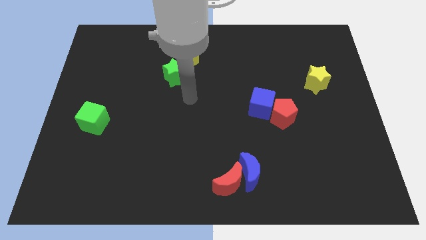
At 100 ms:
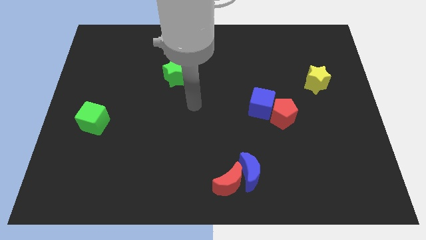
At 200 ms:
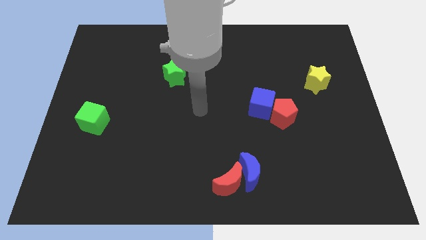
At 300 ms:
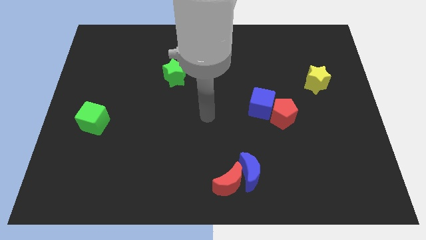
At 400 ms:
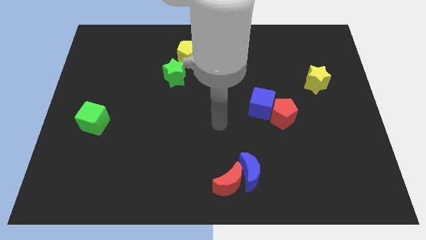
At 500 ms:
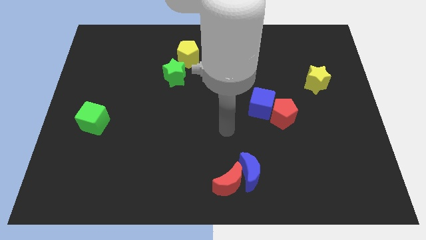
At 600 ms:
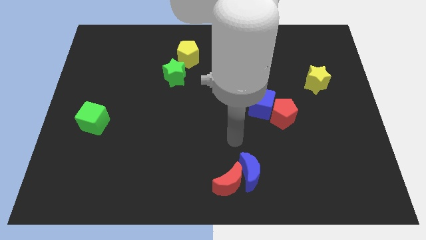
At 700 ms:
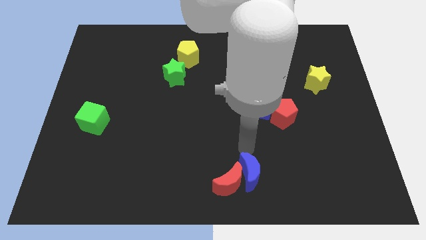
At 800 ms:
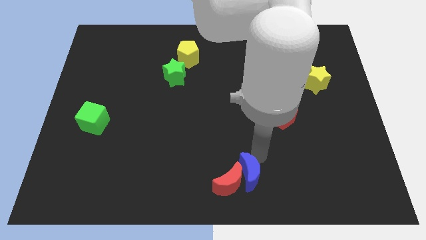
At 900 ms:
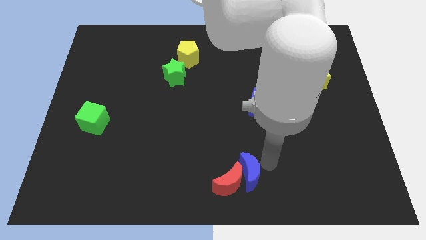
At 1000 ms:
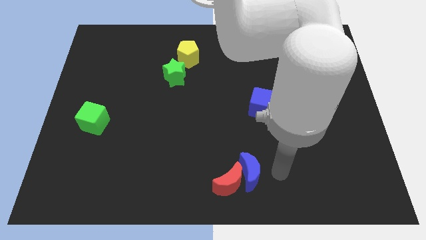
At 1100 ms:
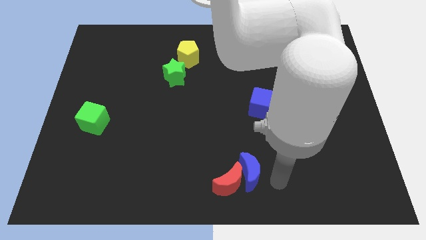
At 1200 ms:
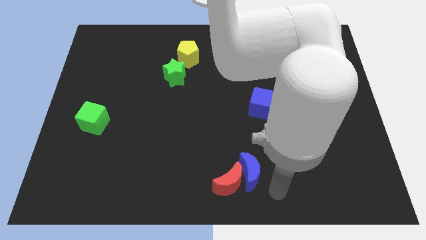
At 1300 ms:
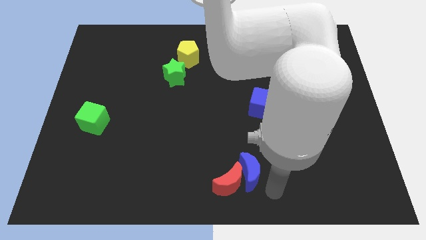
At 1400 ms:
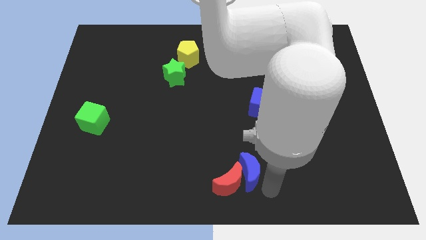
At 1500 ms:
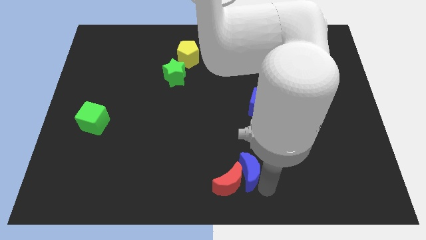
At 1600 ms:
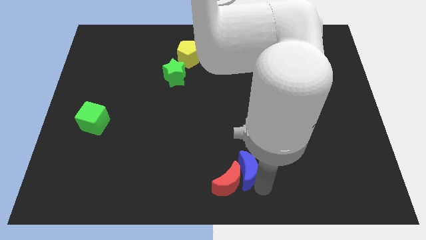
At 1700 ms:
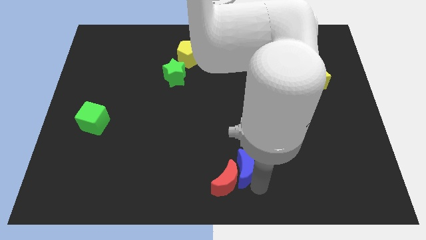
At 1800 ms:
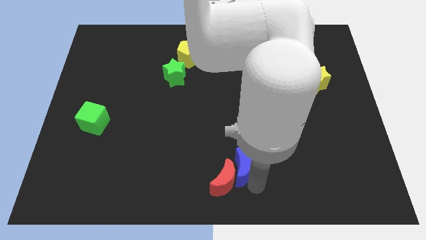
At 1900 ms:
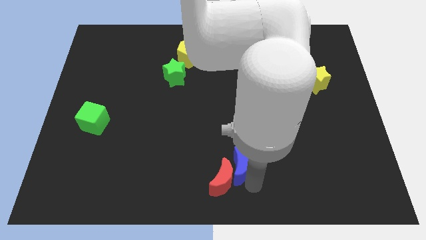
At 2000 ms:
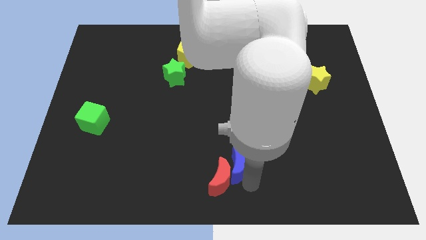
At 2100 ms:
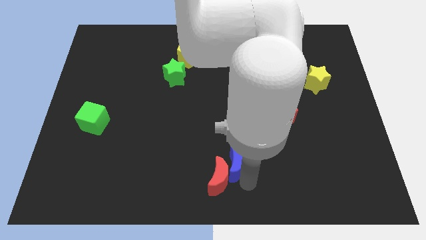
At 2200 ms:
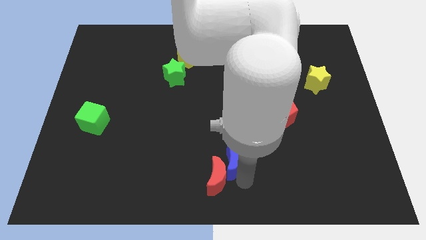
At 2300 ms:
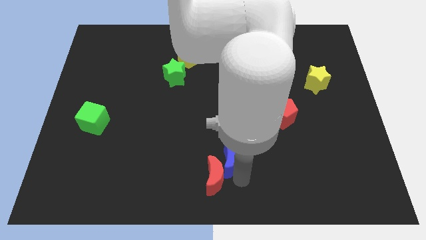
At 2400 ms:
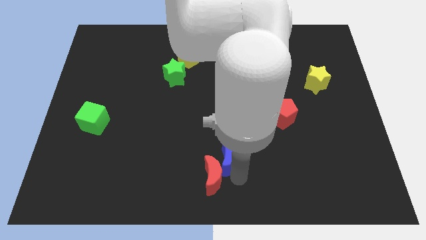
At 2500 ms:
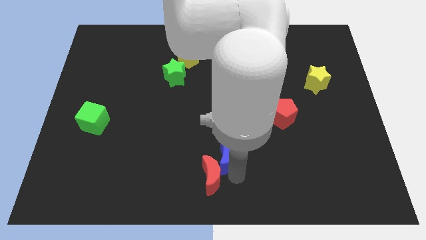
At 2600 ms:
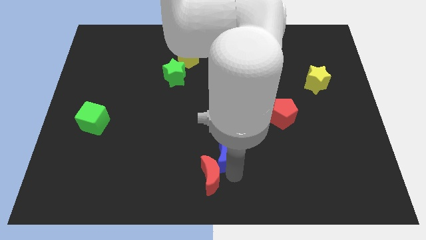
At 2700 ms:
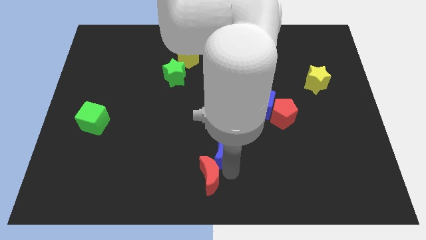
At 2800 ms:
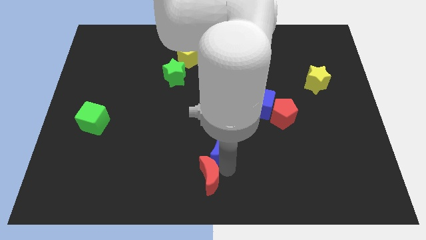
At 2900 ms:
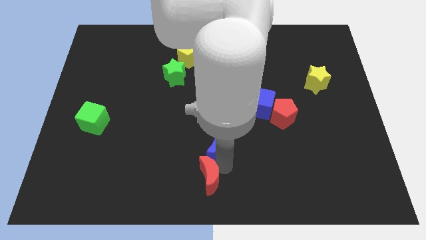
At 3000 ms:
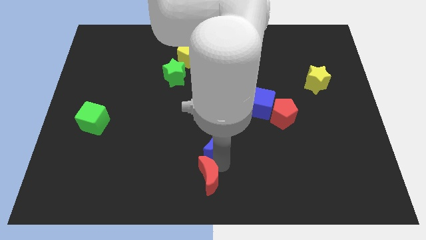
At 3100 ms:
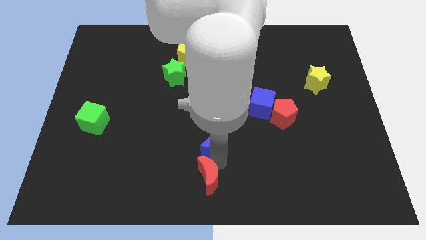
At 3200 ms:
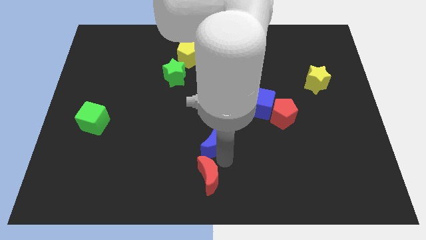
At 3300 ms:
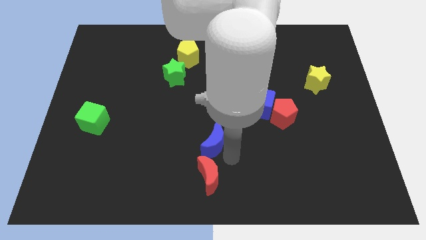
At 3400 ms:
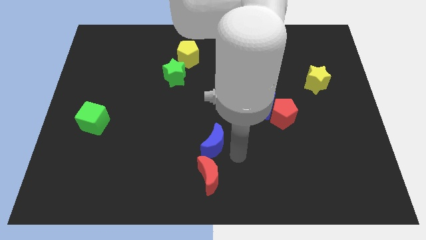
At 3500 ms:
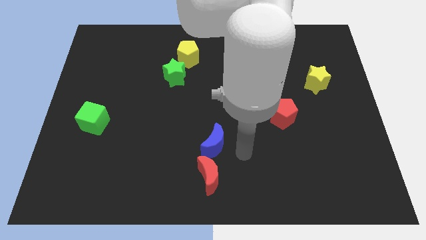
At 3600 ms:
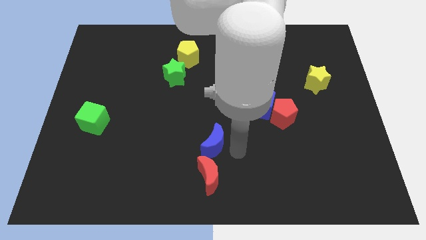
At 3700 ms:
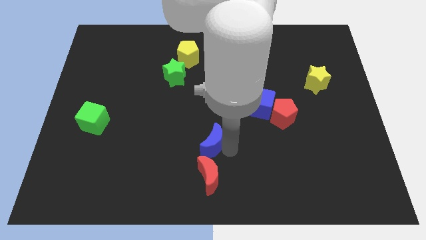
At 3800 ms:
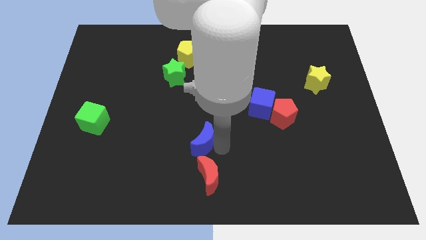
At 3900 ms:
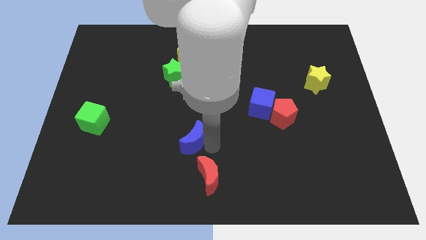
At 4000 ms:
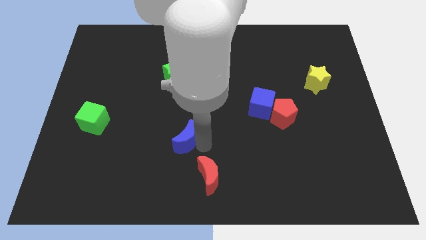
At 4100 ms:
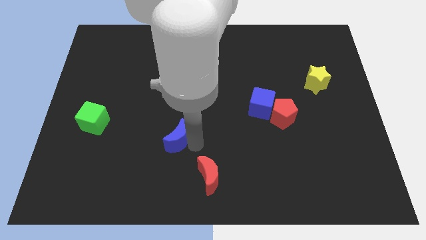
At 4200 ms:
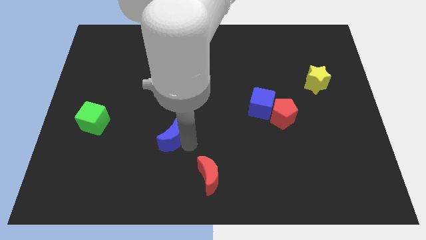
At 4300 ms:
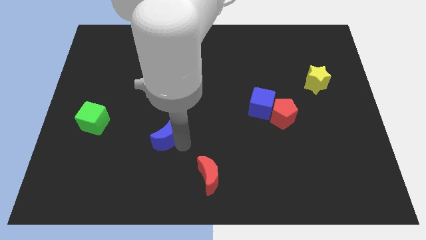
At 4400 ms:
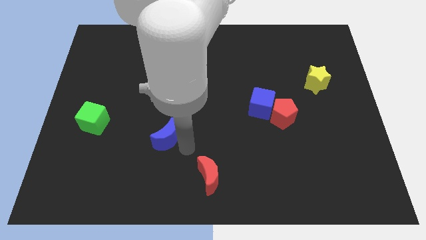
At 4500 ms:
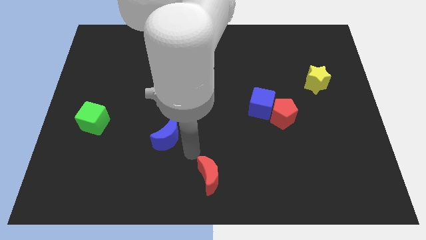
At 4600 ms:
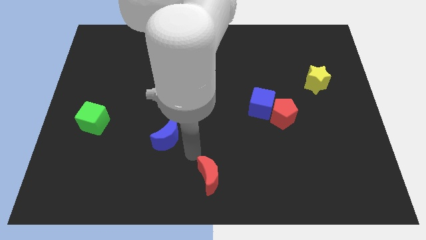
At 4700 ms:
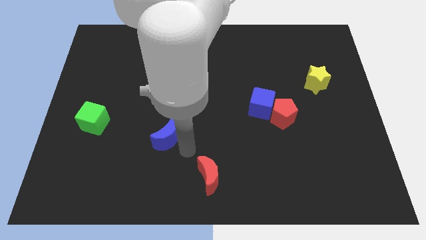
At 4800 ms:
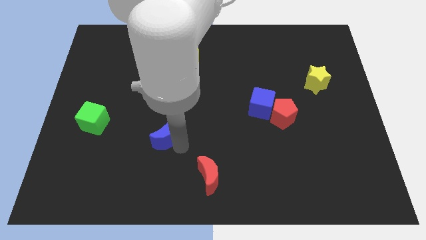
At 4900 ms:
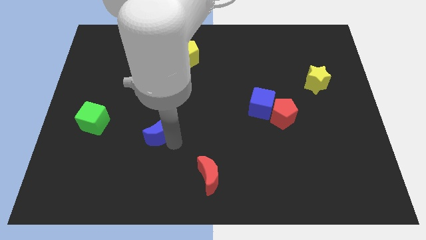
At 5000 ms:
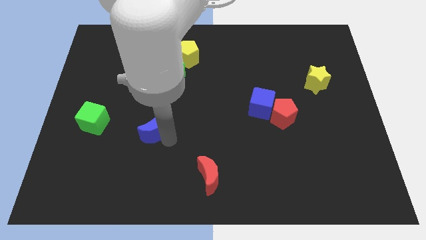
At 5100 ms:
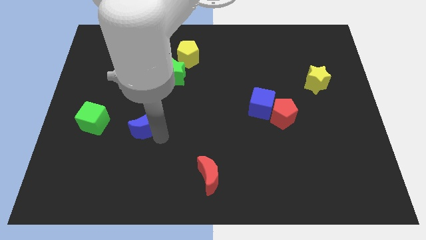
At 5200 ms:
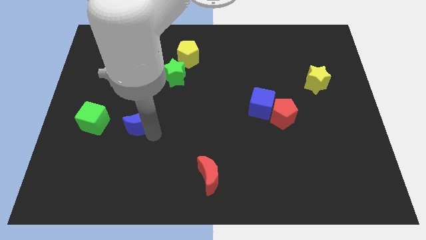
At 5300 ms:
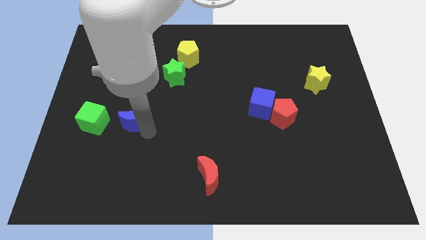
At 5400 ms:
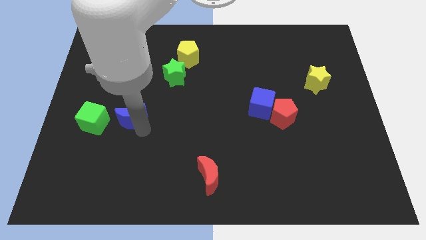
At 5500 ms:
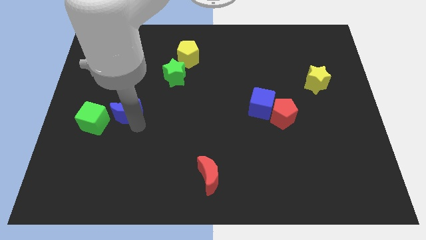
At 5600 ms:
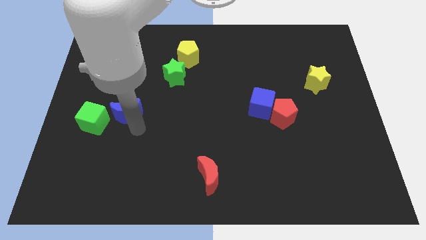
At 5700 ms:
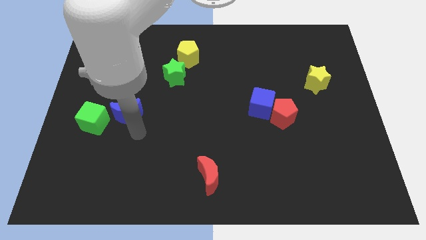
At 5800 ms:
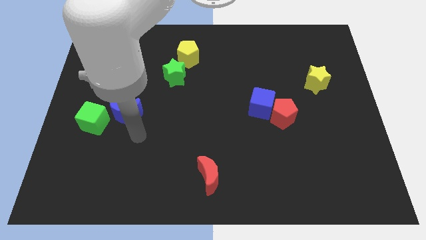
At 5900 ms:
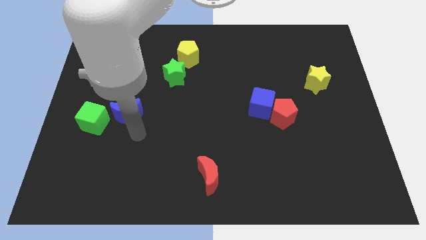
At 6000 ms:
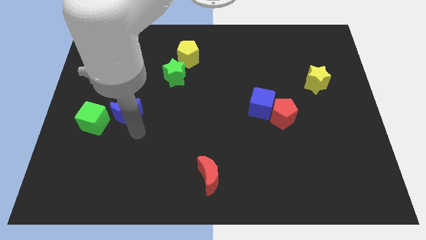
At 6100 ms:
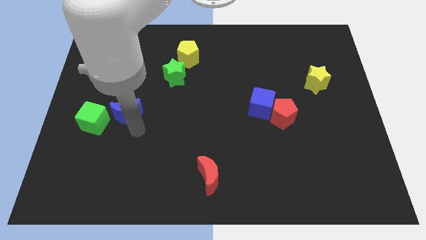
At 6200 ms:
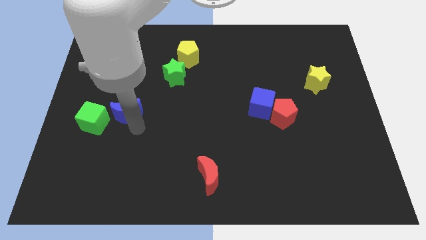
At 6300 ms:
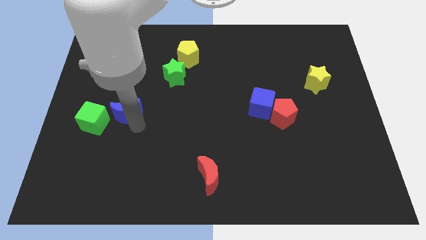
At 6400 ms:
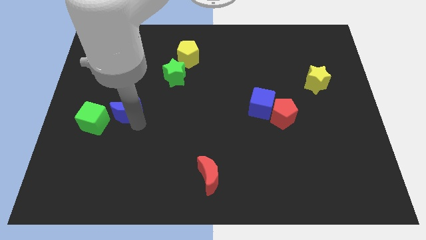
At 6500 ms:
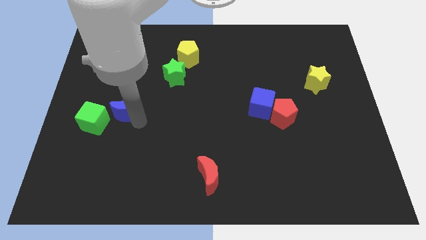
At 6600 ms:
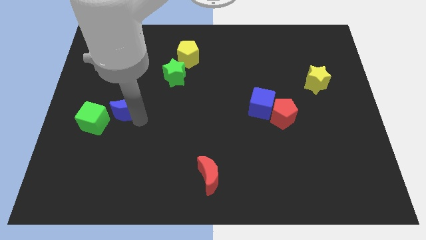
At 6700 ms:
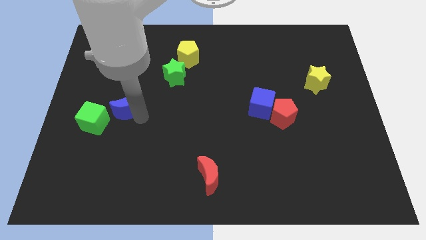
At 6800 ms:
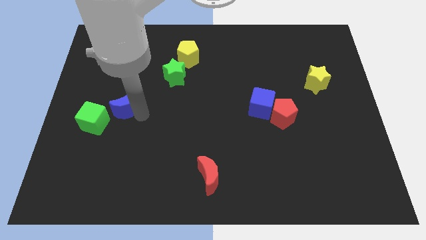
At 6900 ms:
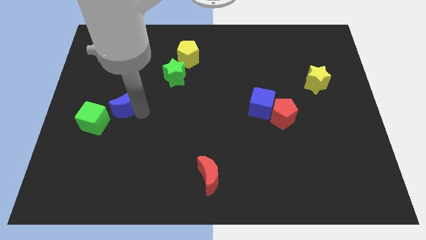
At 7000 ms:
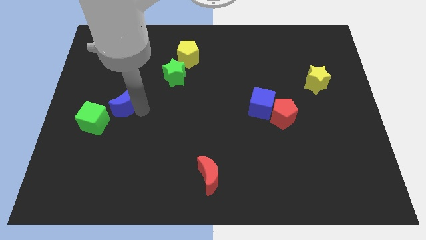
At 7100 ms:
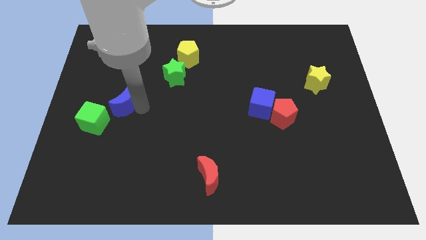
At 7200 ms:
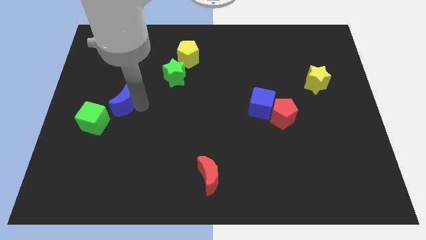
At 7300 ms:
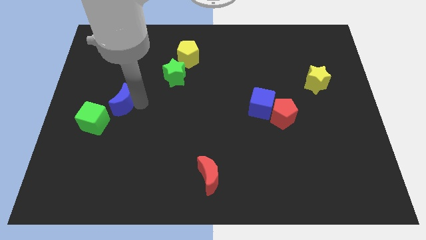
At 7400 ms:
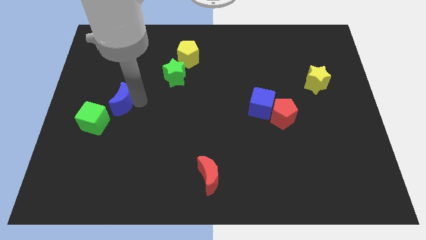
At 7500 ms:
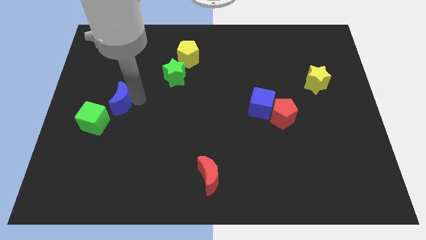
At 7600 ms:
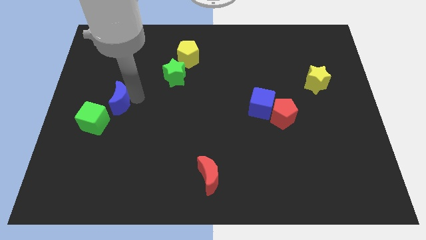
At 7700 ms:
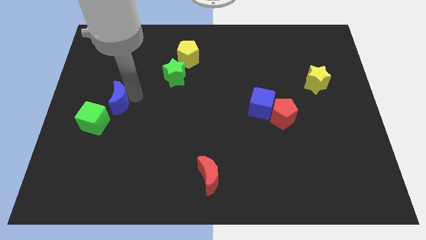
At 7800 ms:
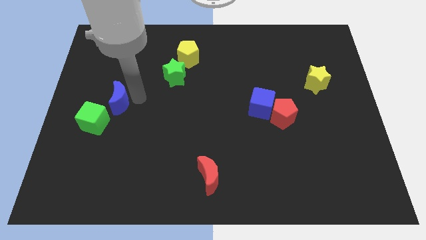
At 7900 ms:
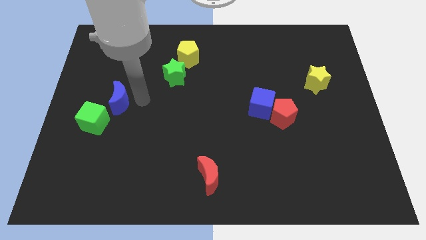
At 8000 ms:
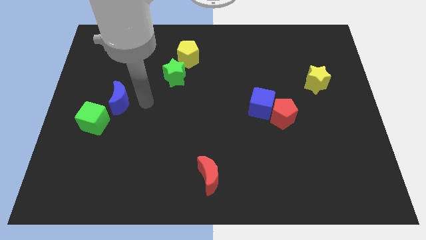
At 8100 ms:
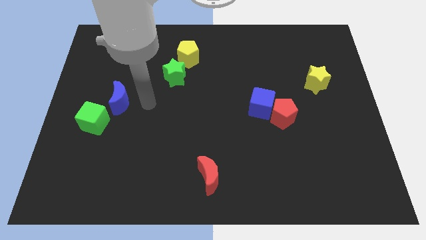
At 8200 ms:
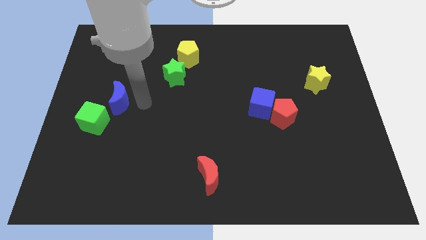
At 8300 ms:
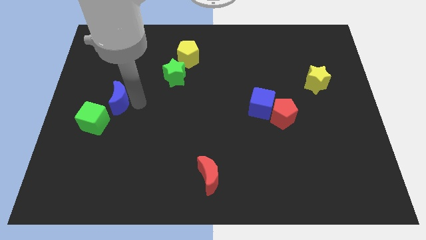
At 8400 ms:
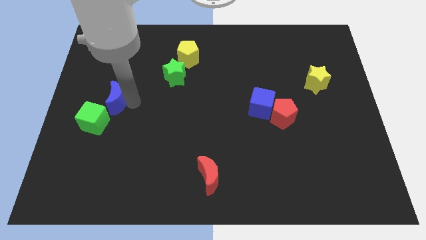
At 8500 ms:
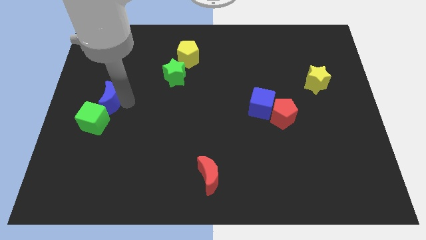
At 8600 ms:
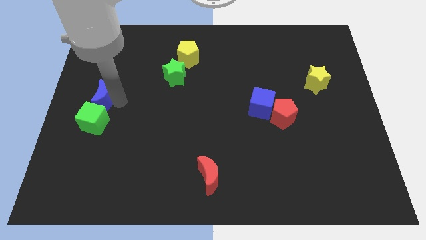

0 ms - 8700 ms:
push the blue moon to the center left
